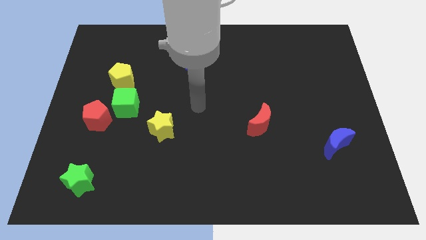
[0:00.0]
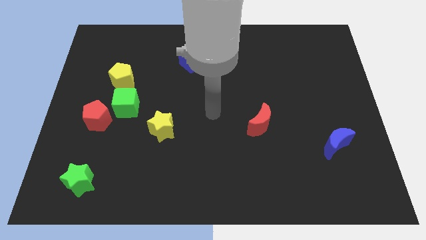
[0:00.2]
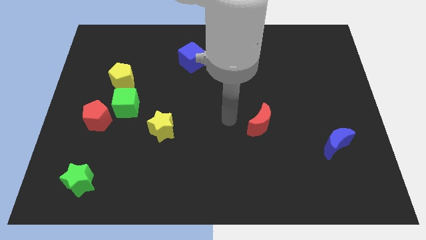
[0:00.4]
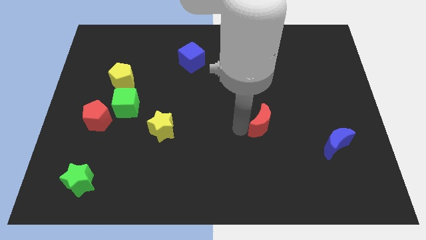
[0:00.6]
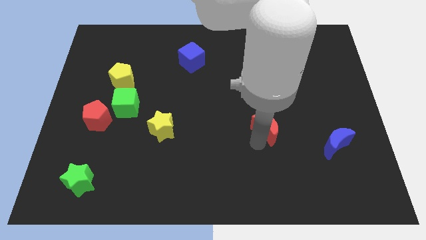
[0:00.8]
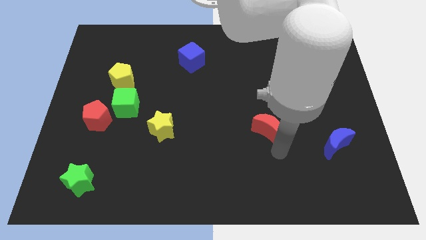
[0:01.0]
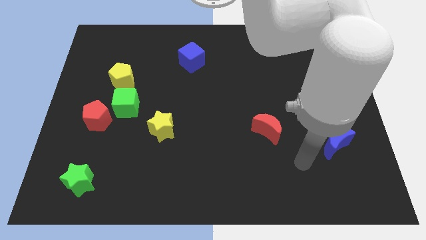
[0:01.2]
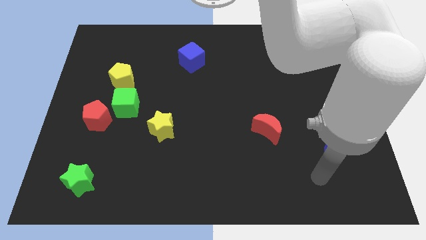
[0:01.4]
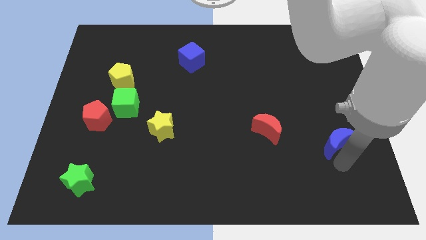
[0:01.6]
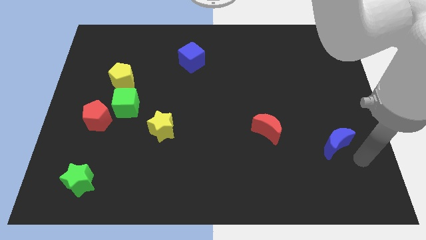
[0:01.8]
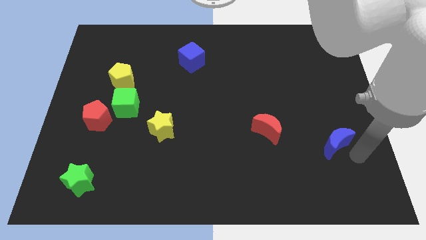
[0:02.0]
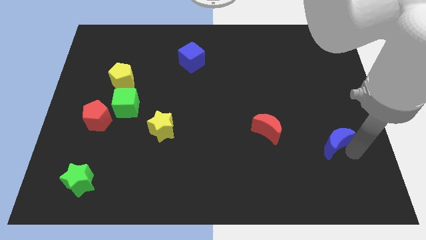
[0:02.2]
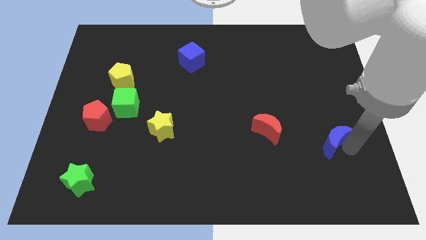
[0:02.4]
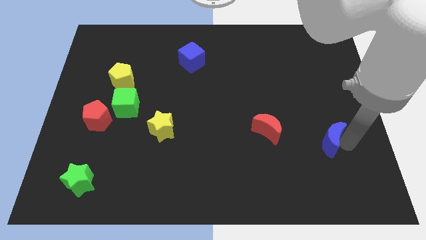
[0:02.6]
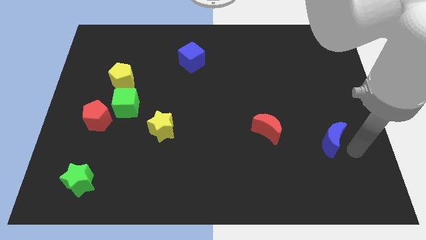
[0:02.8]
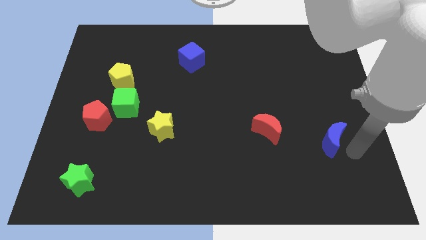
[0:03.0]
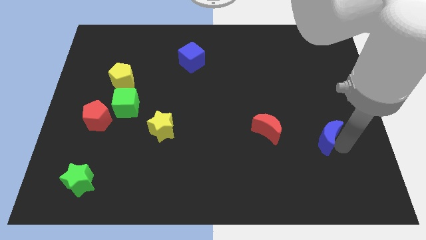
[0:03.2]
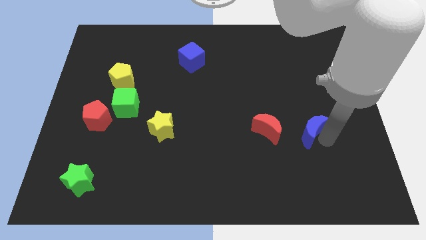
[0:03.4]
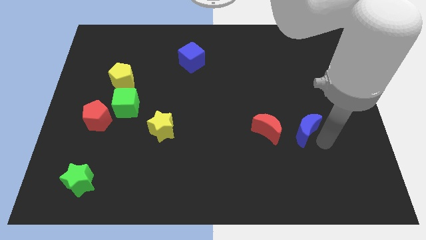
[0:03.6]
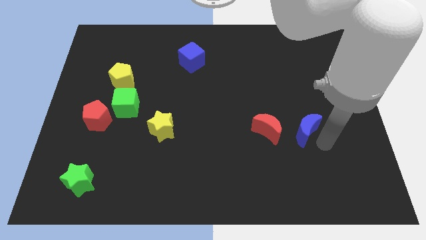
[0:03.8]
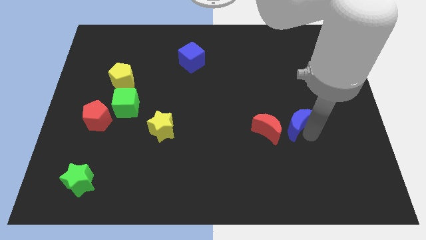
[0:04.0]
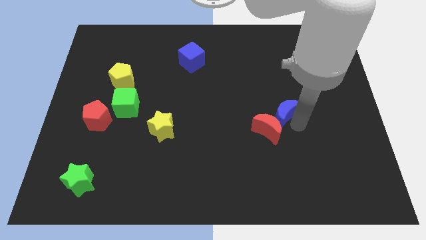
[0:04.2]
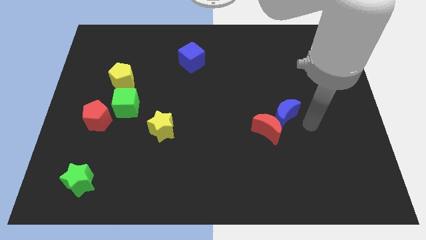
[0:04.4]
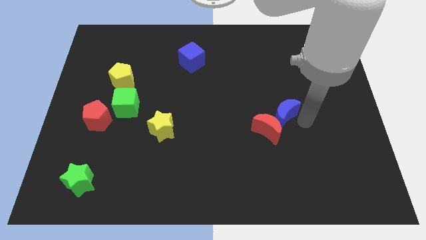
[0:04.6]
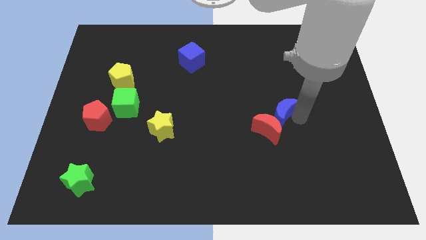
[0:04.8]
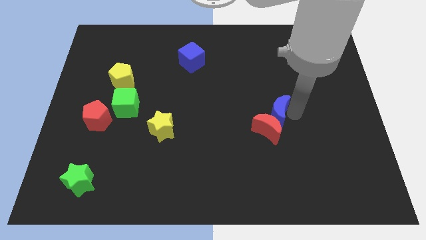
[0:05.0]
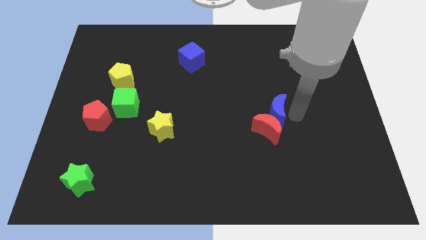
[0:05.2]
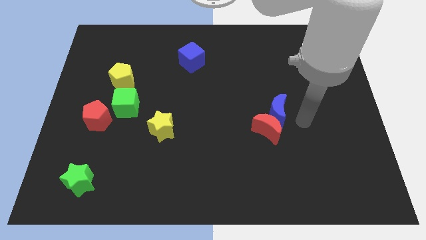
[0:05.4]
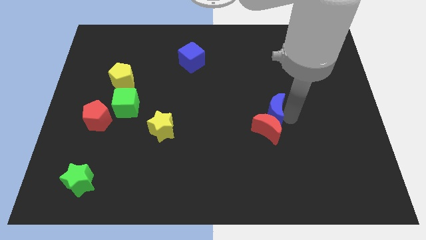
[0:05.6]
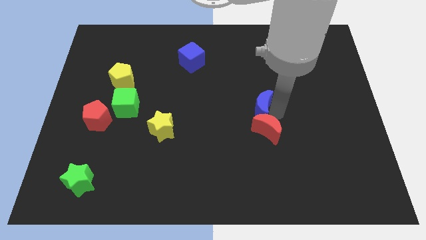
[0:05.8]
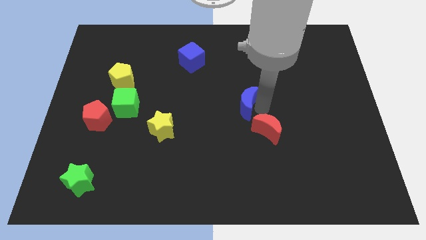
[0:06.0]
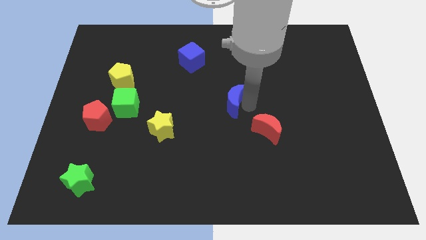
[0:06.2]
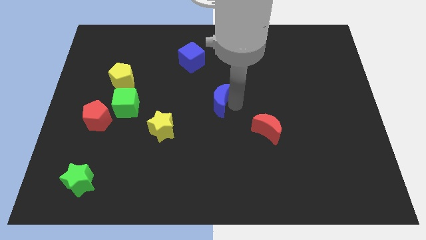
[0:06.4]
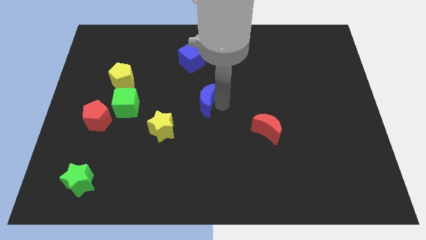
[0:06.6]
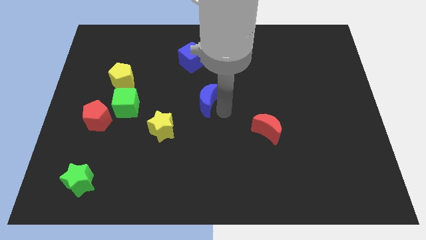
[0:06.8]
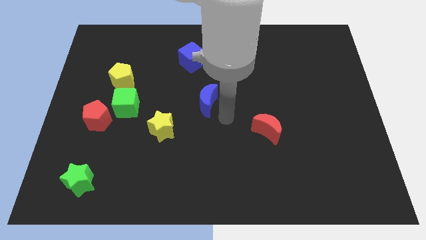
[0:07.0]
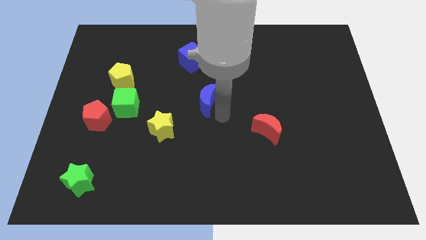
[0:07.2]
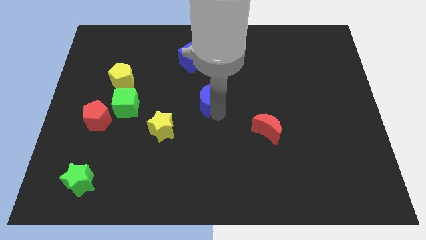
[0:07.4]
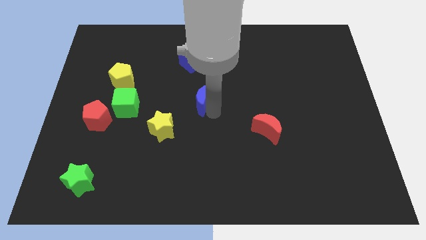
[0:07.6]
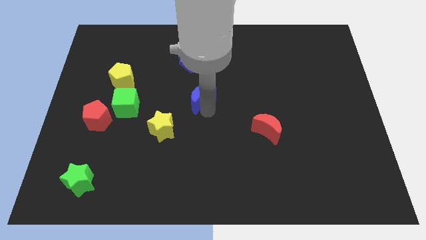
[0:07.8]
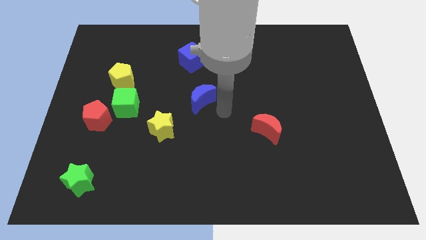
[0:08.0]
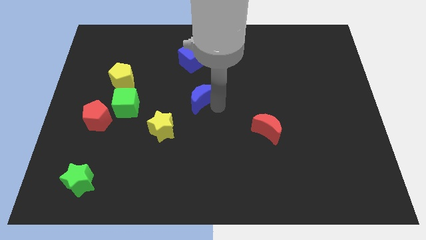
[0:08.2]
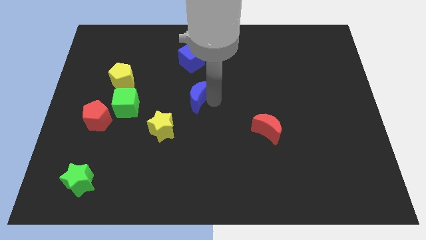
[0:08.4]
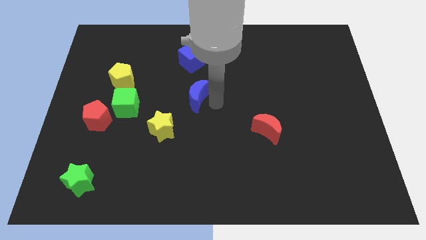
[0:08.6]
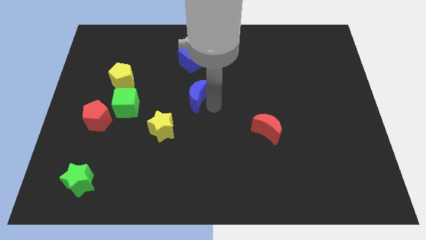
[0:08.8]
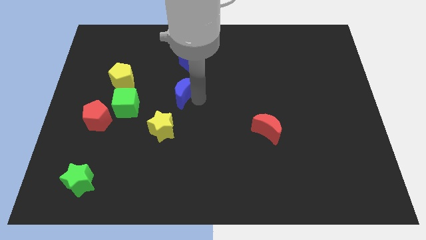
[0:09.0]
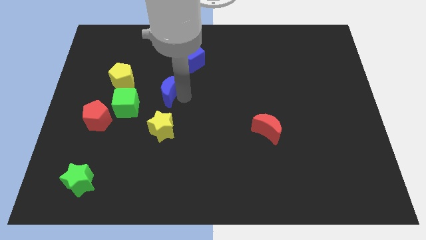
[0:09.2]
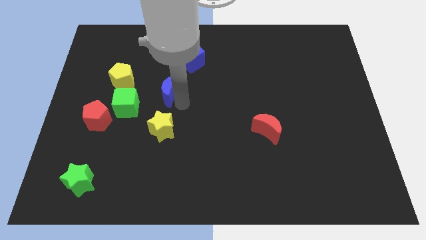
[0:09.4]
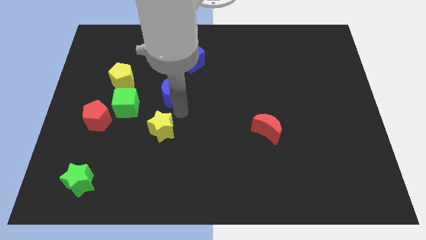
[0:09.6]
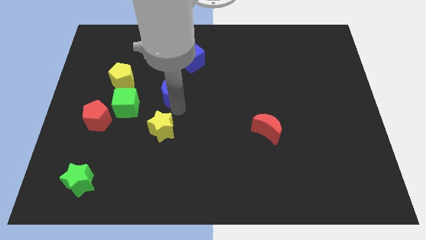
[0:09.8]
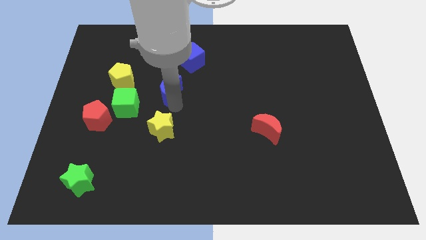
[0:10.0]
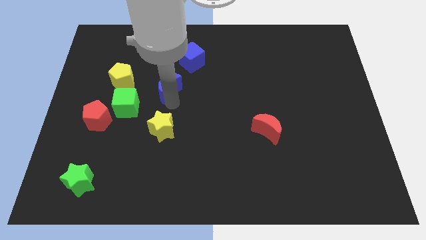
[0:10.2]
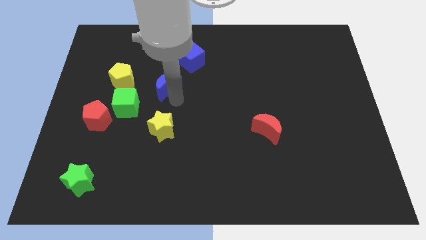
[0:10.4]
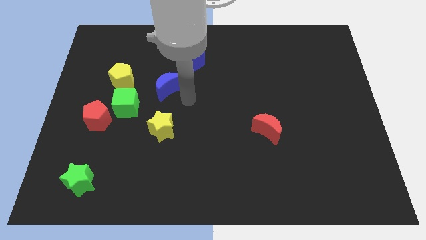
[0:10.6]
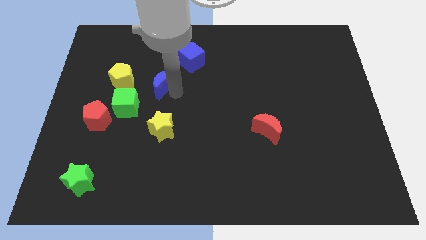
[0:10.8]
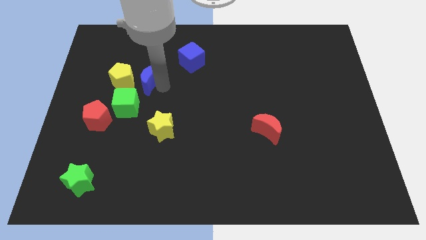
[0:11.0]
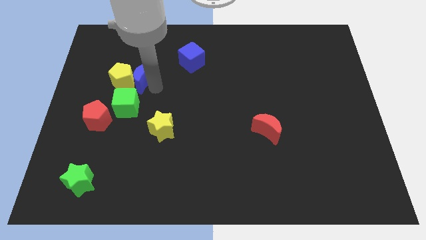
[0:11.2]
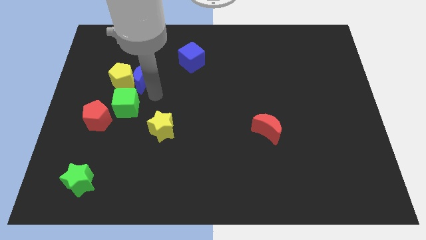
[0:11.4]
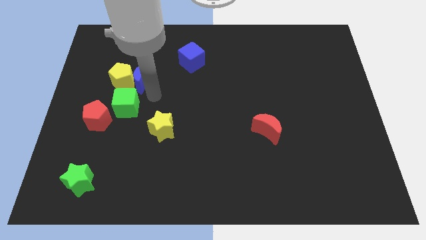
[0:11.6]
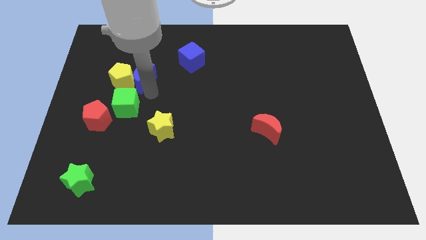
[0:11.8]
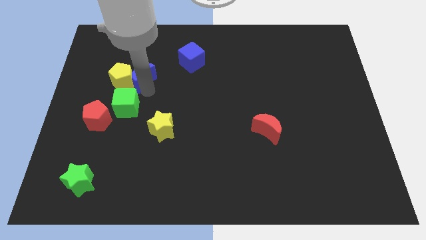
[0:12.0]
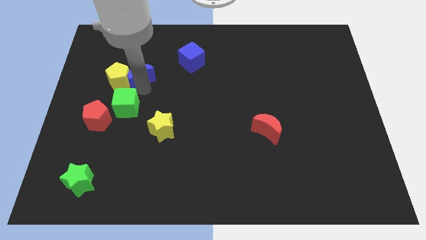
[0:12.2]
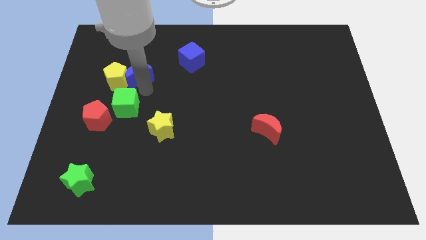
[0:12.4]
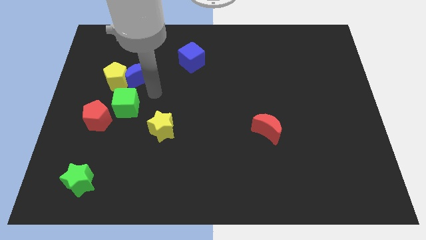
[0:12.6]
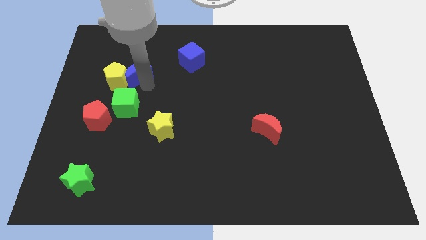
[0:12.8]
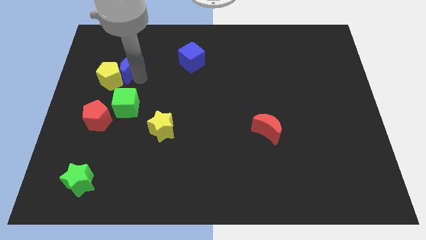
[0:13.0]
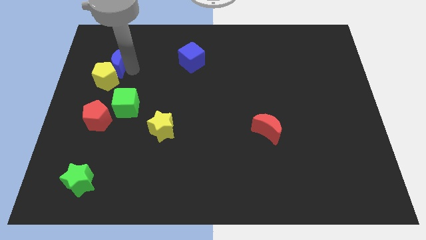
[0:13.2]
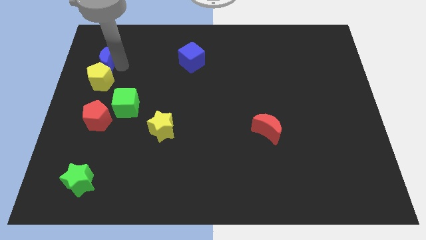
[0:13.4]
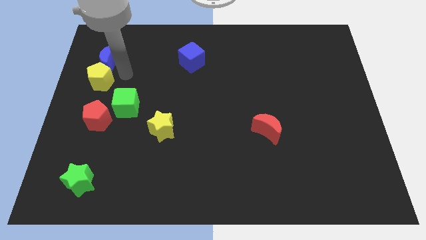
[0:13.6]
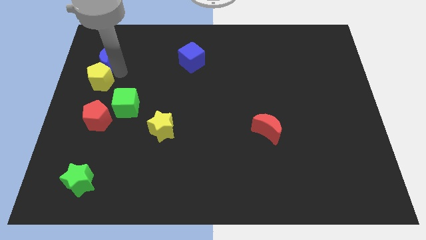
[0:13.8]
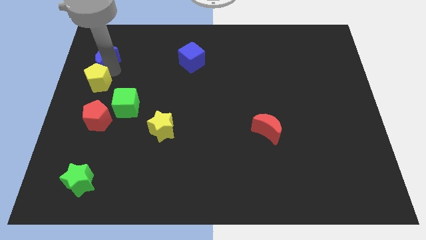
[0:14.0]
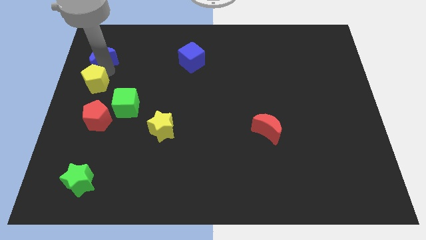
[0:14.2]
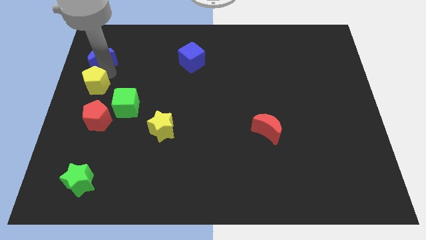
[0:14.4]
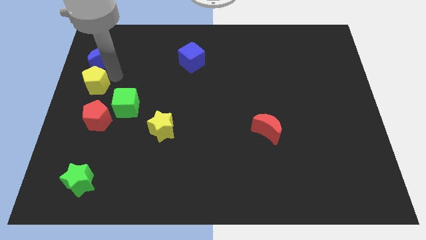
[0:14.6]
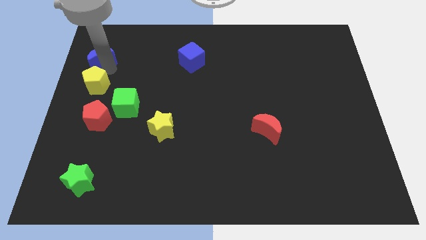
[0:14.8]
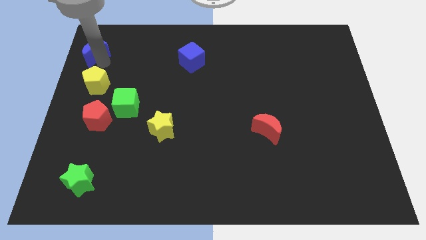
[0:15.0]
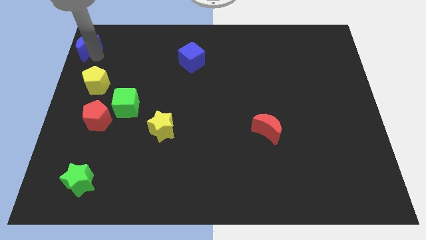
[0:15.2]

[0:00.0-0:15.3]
push the blue moon to the upper left corner
